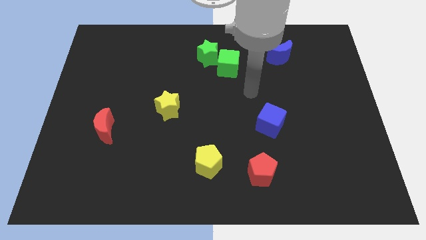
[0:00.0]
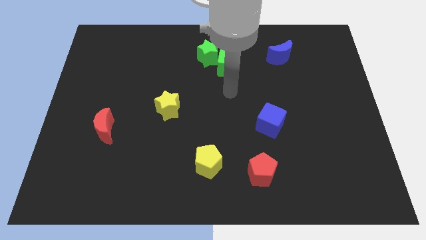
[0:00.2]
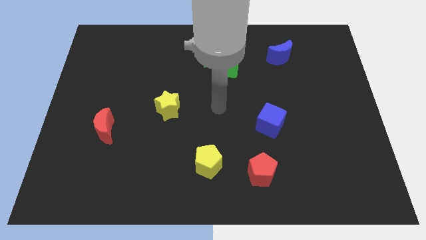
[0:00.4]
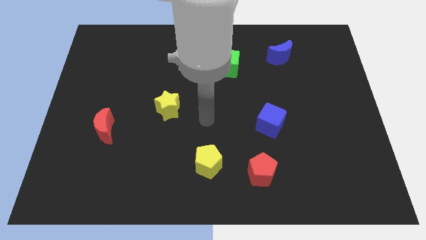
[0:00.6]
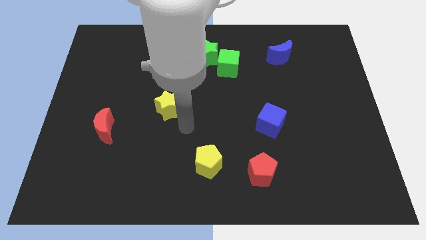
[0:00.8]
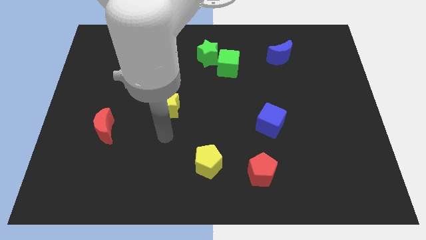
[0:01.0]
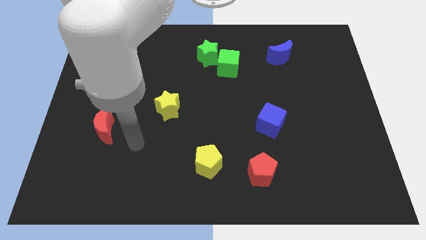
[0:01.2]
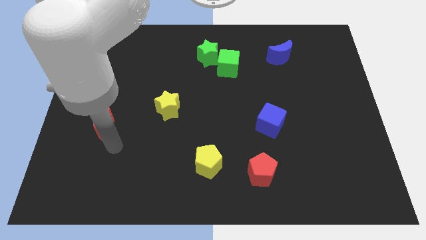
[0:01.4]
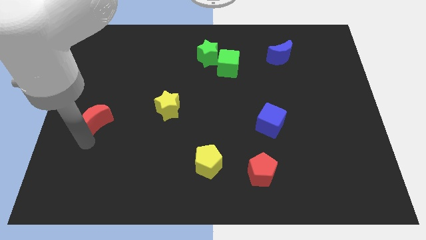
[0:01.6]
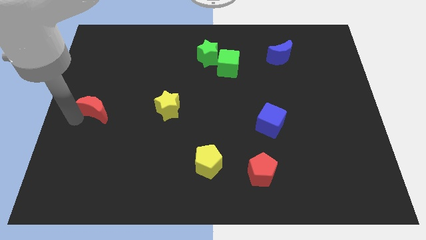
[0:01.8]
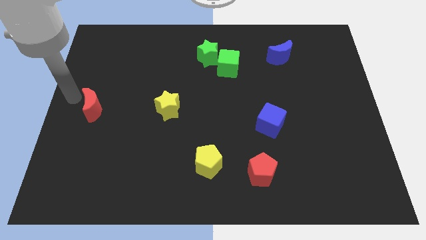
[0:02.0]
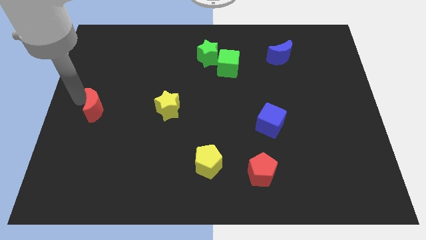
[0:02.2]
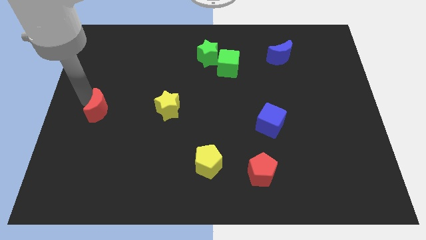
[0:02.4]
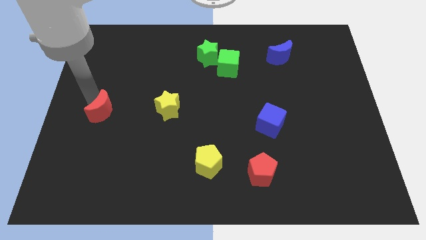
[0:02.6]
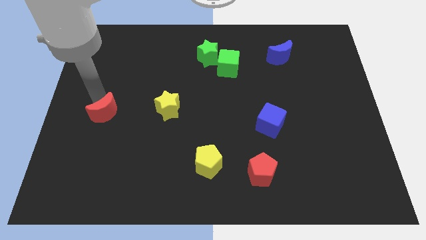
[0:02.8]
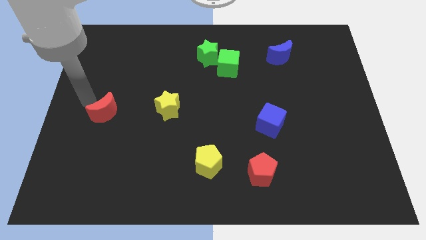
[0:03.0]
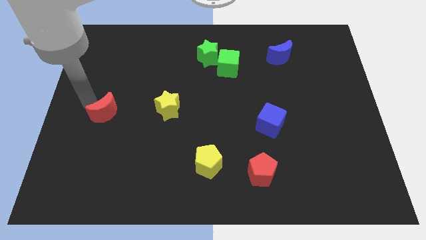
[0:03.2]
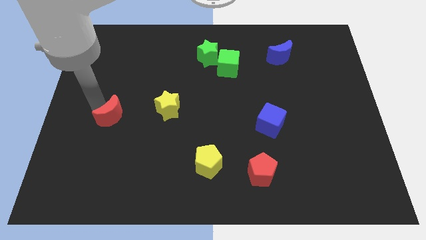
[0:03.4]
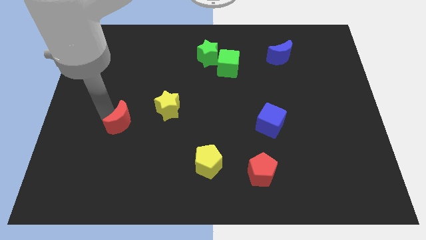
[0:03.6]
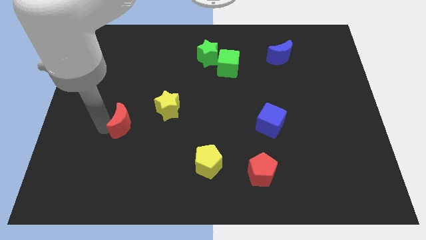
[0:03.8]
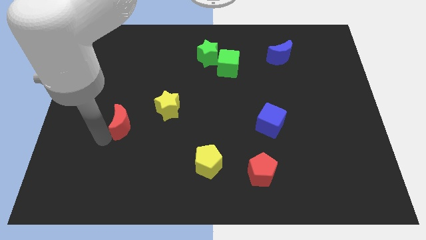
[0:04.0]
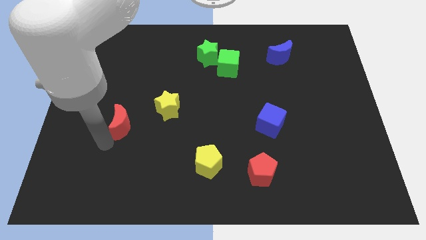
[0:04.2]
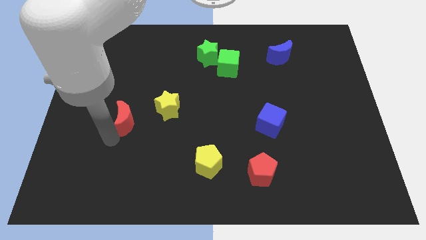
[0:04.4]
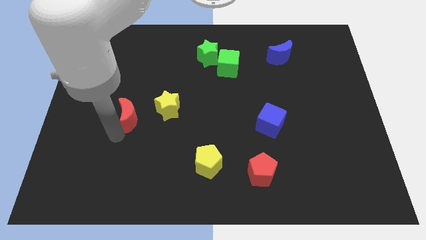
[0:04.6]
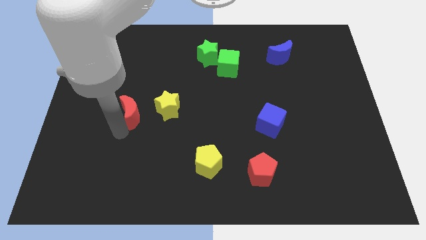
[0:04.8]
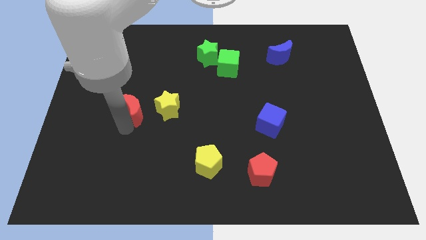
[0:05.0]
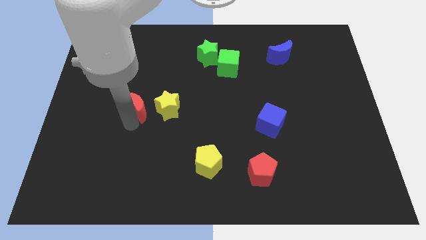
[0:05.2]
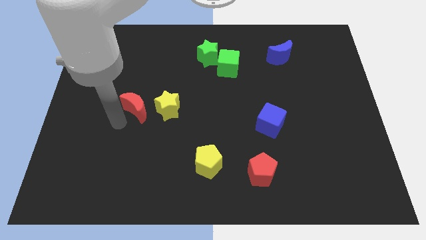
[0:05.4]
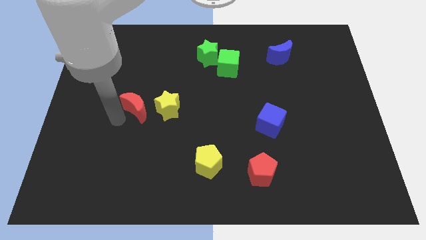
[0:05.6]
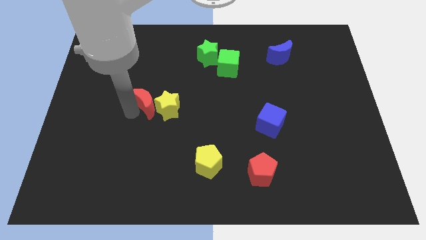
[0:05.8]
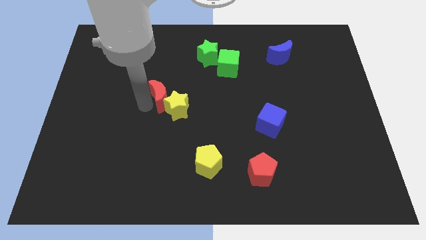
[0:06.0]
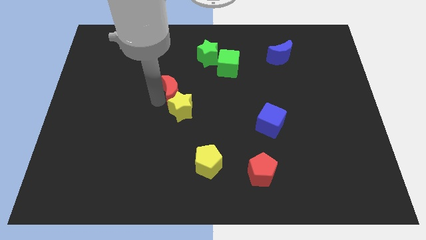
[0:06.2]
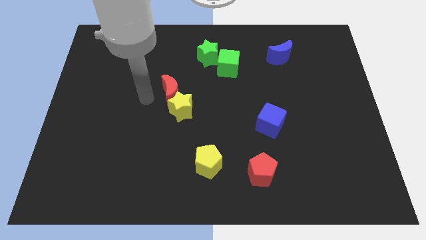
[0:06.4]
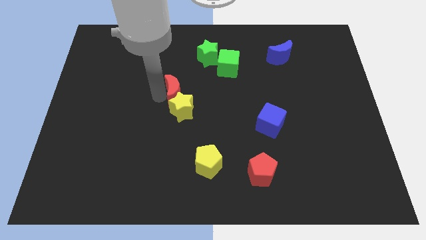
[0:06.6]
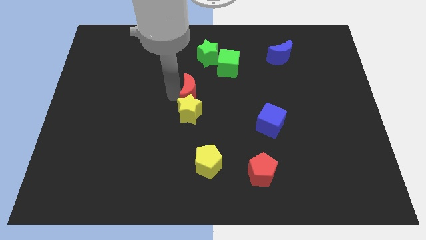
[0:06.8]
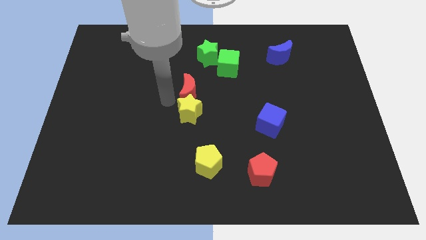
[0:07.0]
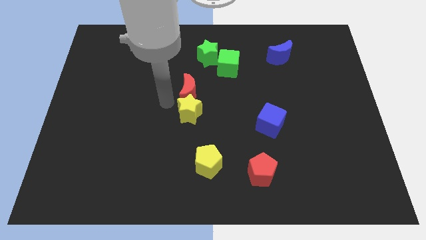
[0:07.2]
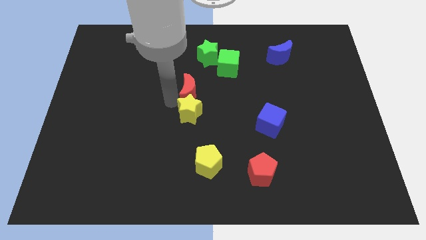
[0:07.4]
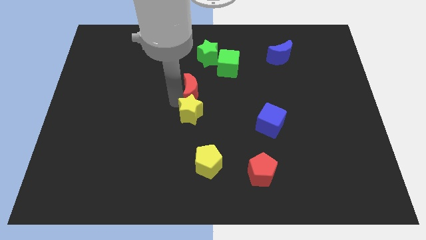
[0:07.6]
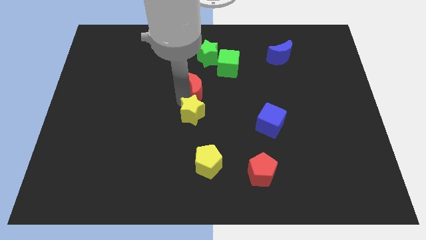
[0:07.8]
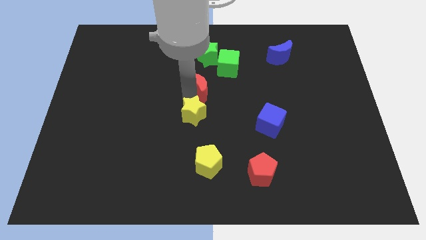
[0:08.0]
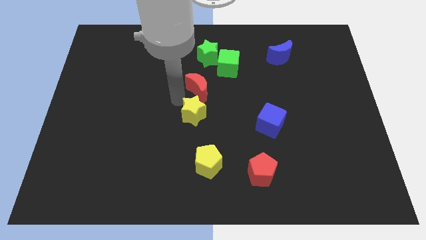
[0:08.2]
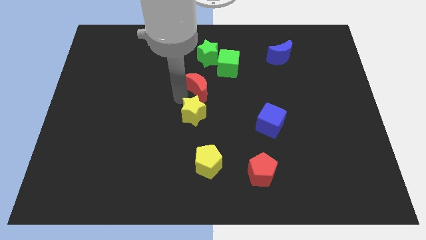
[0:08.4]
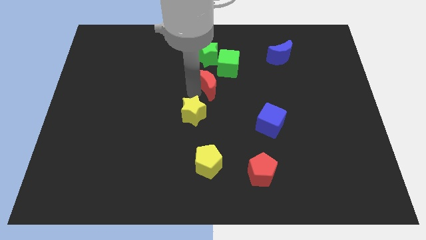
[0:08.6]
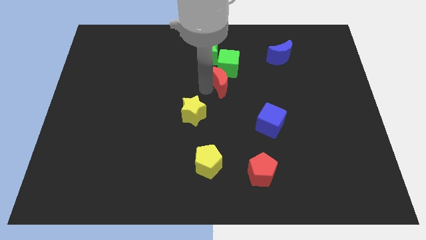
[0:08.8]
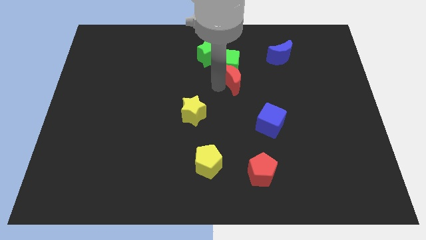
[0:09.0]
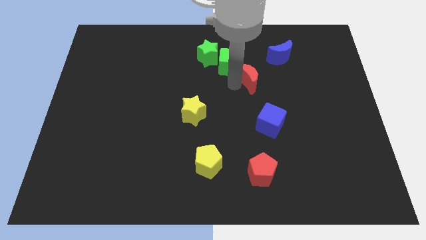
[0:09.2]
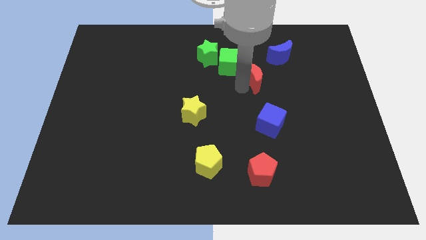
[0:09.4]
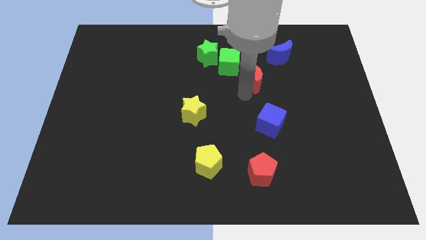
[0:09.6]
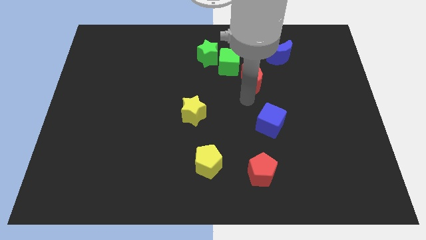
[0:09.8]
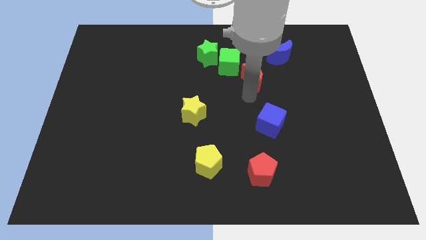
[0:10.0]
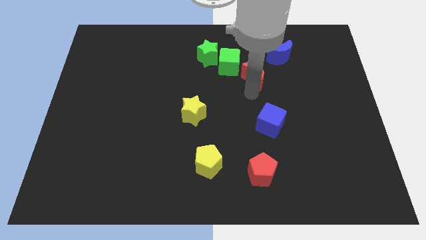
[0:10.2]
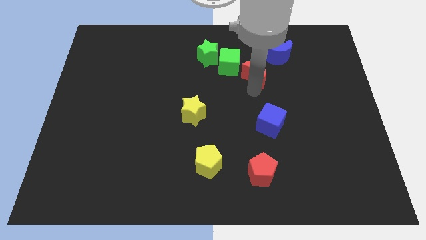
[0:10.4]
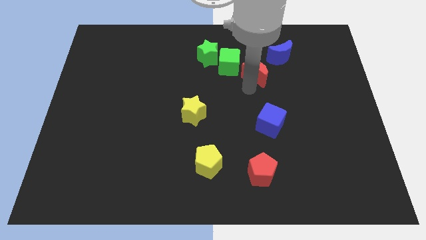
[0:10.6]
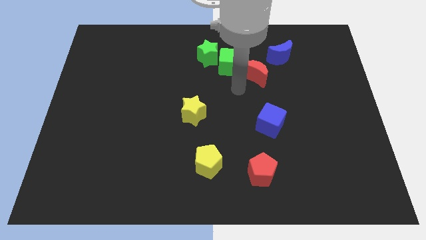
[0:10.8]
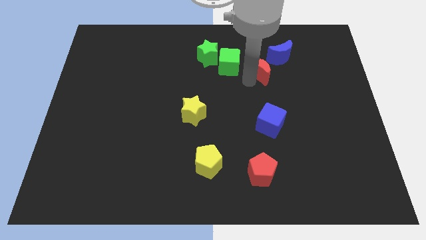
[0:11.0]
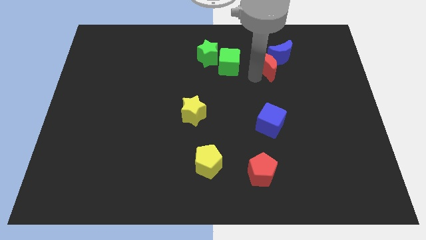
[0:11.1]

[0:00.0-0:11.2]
move the red moon towards the blue moon

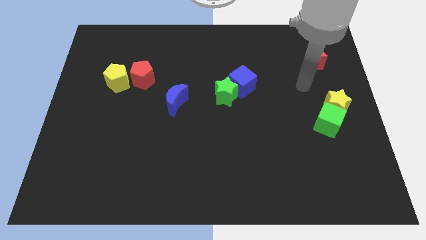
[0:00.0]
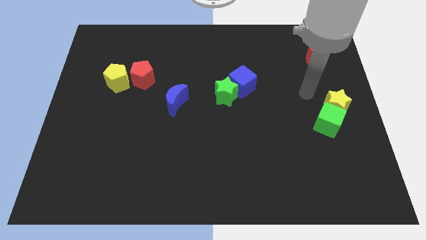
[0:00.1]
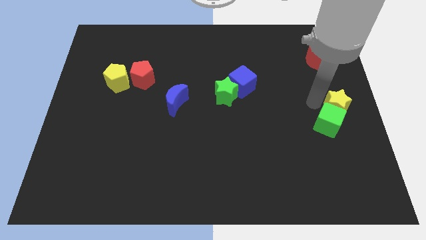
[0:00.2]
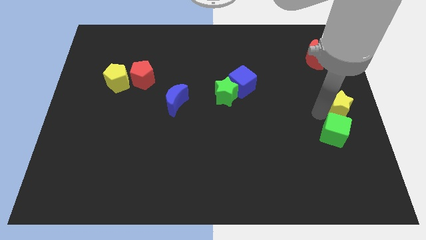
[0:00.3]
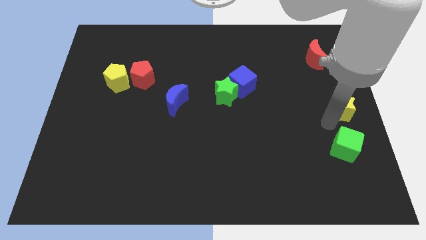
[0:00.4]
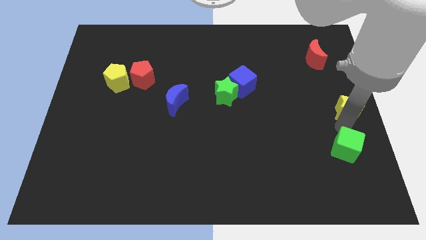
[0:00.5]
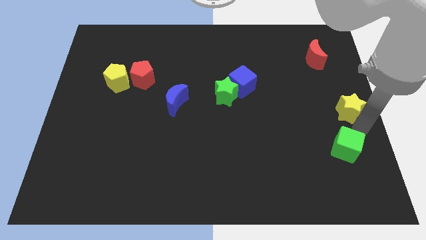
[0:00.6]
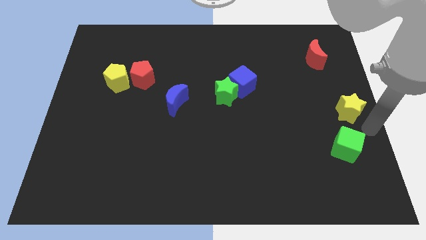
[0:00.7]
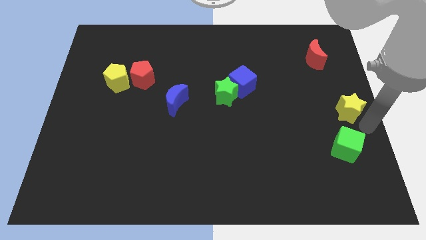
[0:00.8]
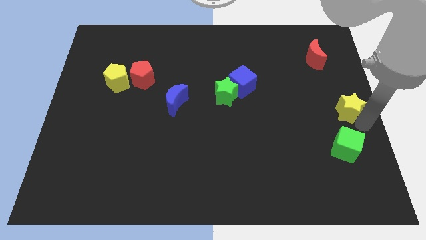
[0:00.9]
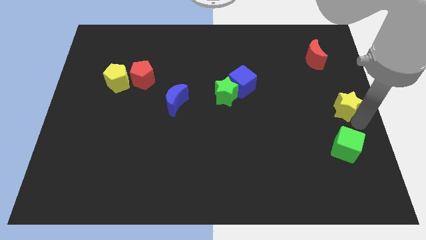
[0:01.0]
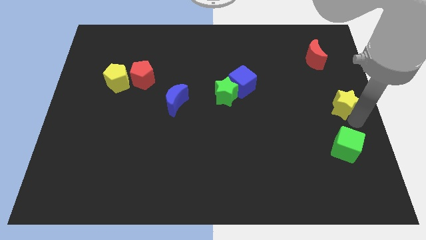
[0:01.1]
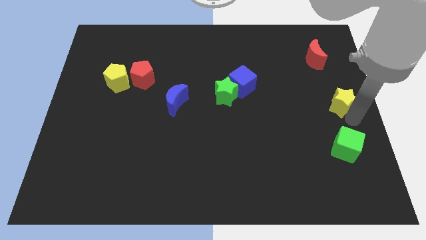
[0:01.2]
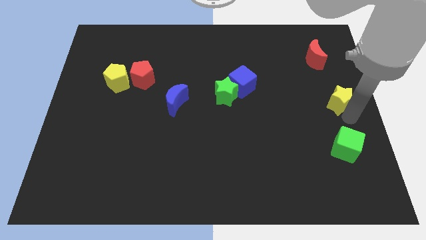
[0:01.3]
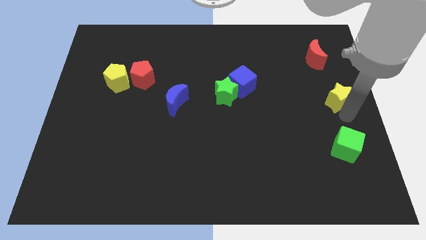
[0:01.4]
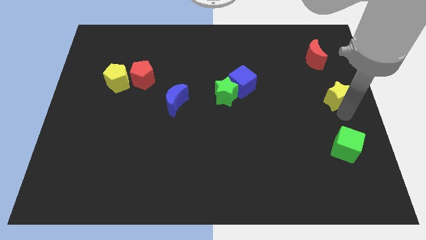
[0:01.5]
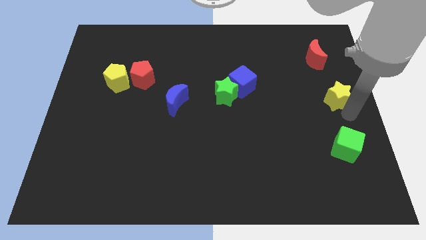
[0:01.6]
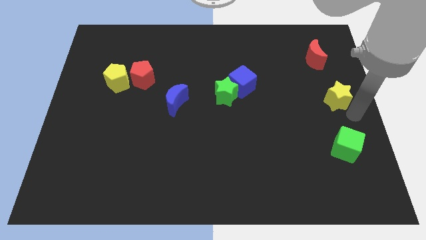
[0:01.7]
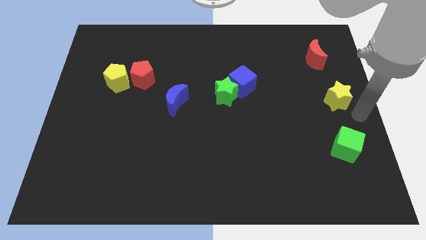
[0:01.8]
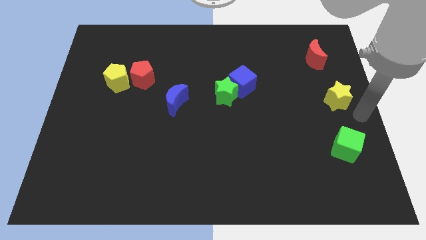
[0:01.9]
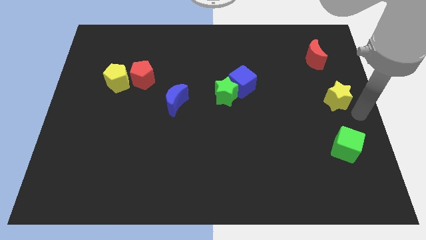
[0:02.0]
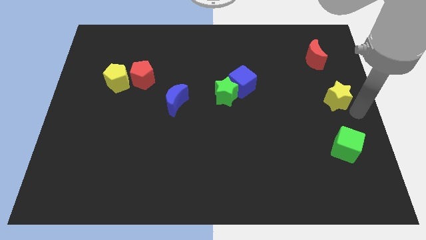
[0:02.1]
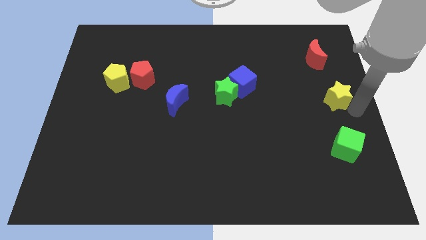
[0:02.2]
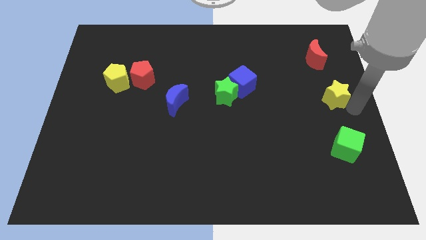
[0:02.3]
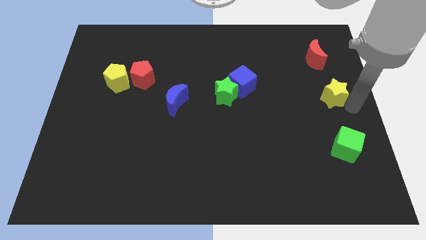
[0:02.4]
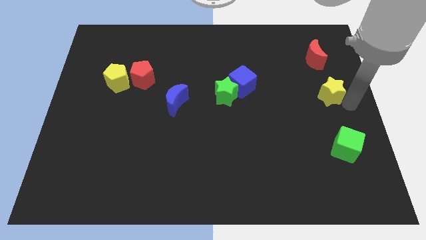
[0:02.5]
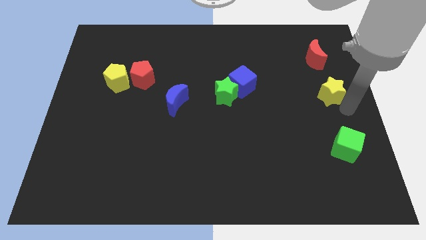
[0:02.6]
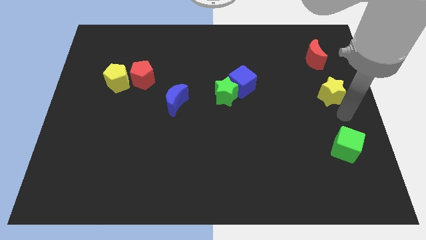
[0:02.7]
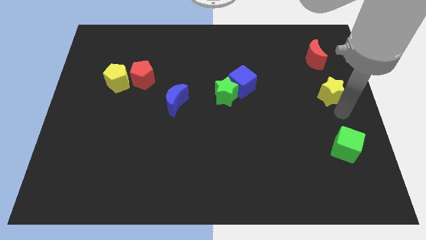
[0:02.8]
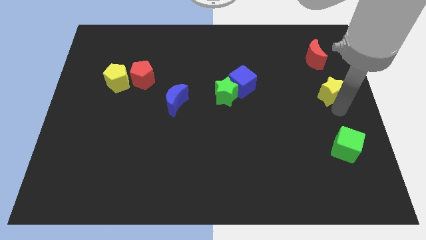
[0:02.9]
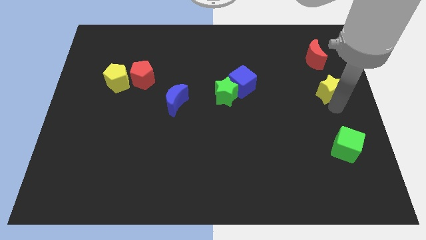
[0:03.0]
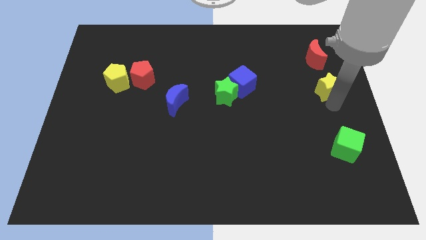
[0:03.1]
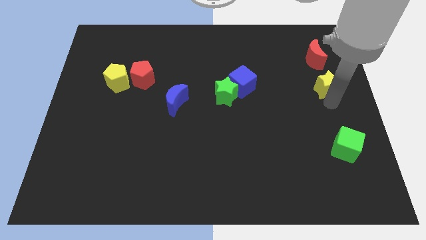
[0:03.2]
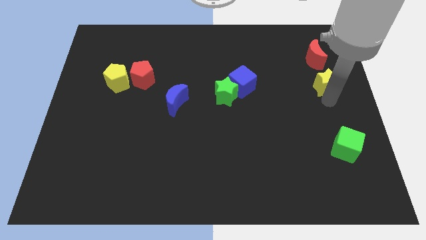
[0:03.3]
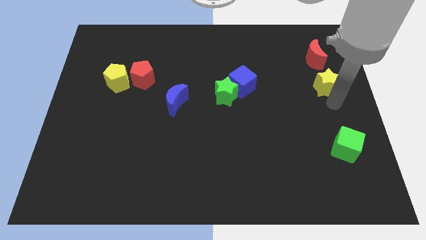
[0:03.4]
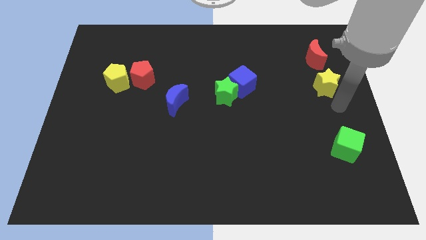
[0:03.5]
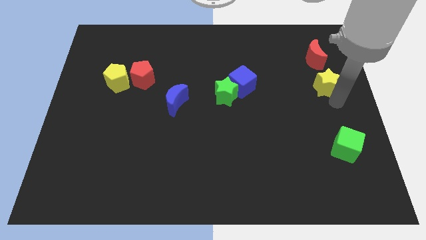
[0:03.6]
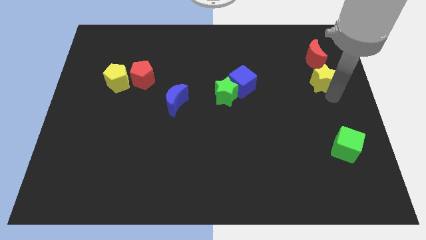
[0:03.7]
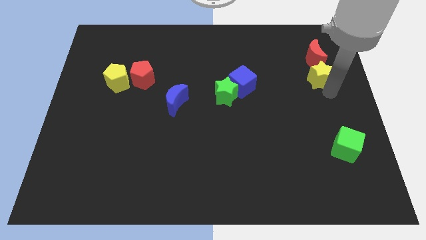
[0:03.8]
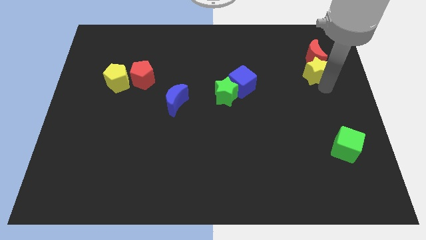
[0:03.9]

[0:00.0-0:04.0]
put the yellow star close to the red moon
